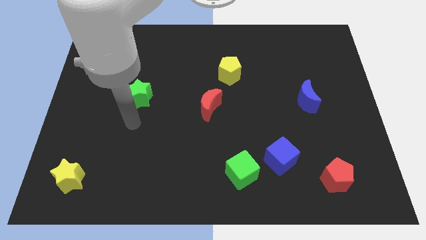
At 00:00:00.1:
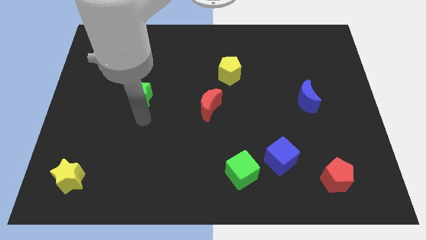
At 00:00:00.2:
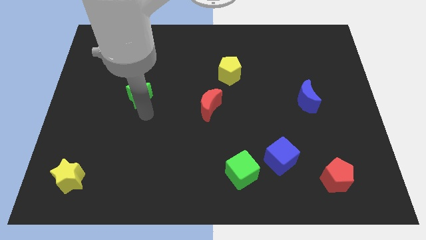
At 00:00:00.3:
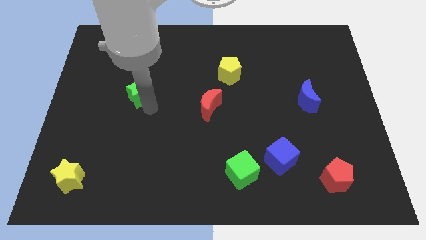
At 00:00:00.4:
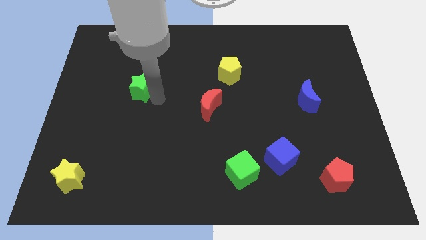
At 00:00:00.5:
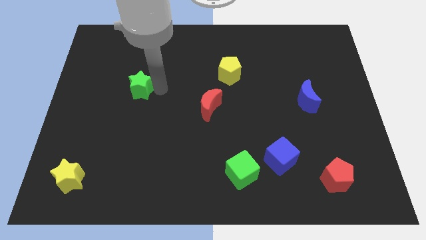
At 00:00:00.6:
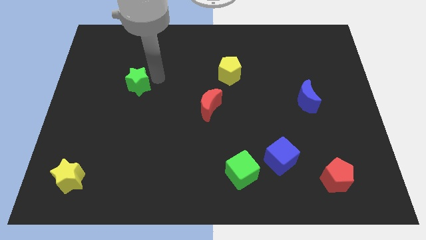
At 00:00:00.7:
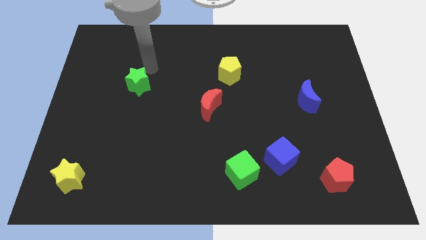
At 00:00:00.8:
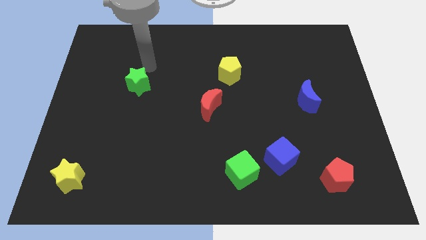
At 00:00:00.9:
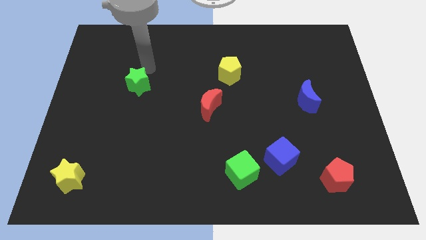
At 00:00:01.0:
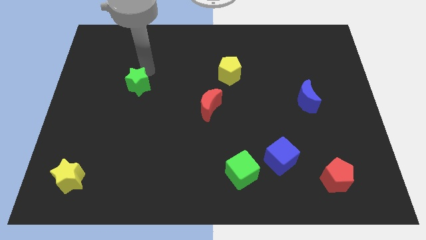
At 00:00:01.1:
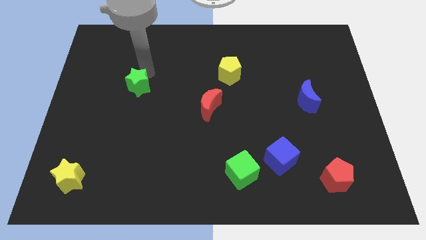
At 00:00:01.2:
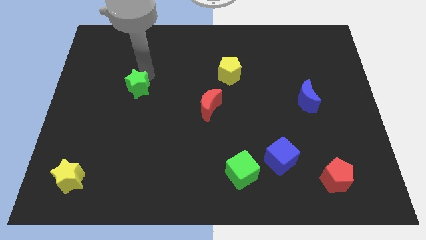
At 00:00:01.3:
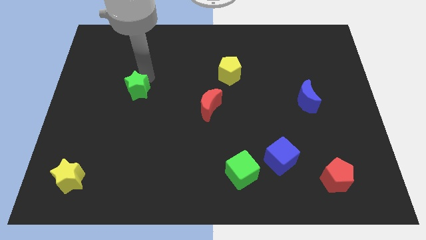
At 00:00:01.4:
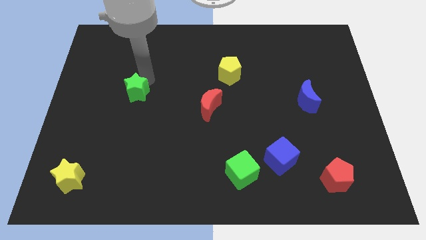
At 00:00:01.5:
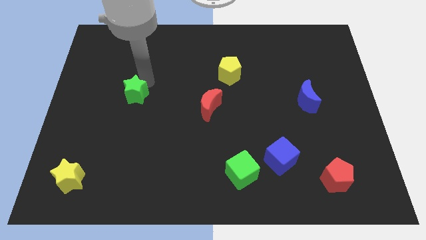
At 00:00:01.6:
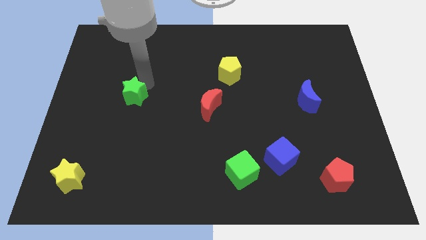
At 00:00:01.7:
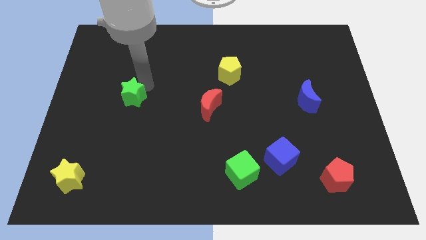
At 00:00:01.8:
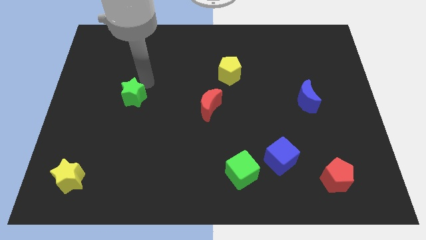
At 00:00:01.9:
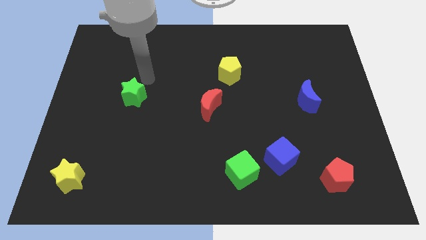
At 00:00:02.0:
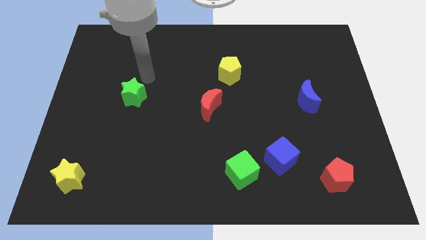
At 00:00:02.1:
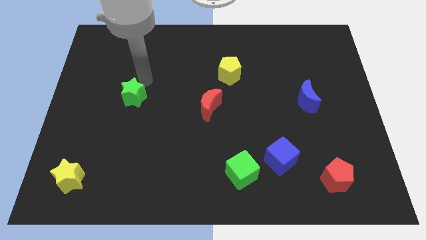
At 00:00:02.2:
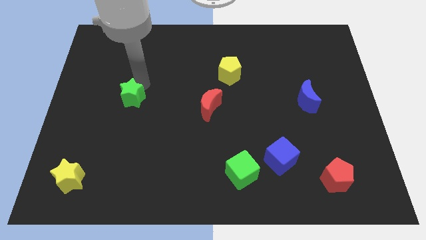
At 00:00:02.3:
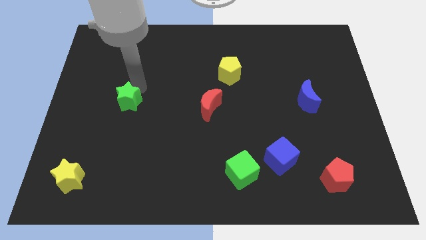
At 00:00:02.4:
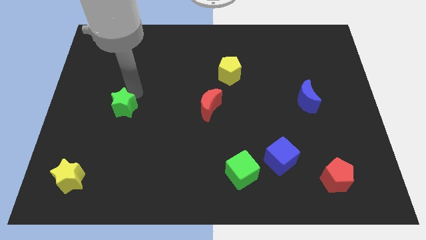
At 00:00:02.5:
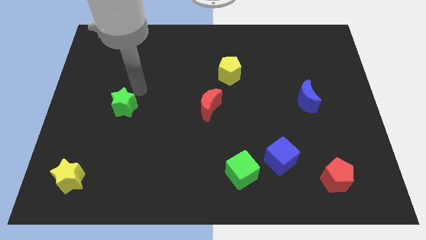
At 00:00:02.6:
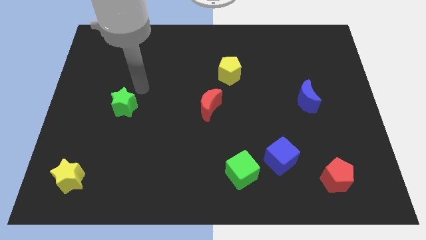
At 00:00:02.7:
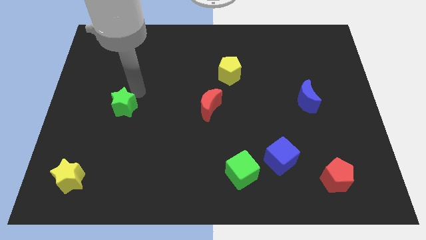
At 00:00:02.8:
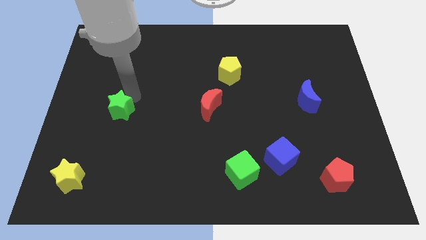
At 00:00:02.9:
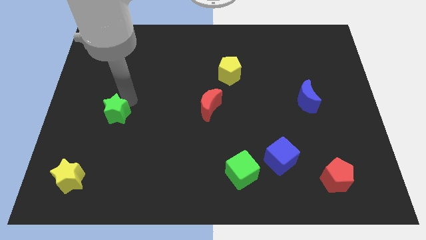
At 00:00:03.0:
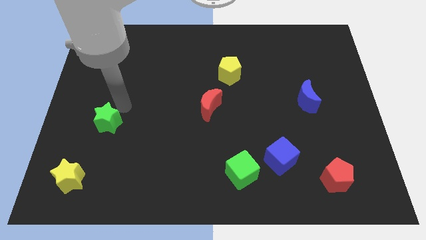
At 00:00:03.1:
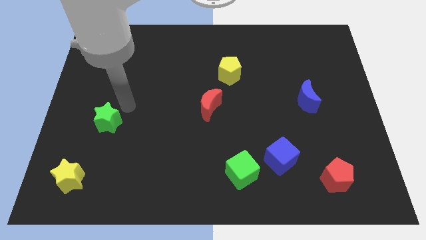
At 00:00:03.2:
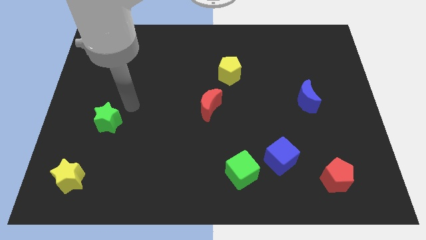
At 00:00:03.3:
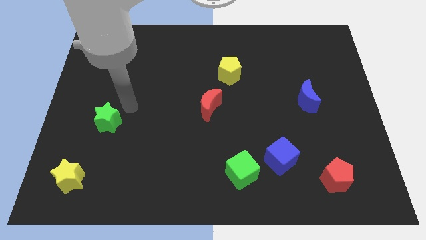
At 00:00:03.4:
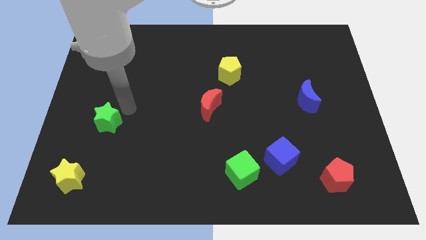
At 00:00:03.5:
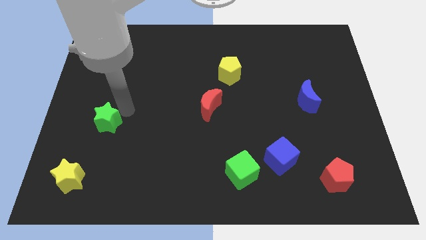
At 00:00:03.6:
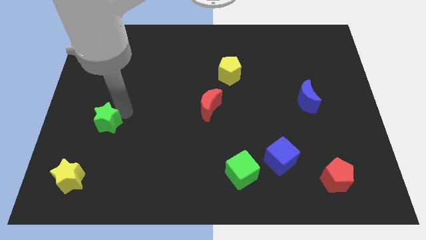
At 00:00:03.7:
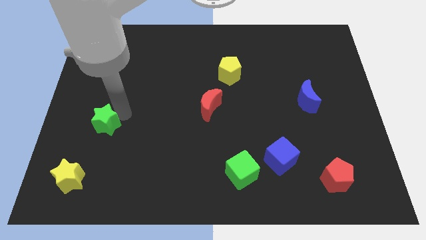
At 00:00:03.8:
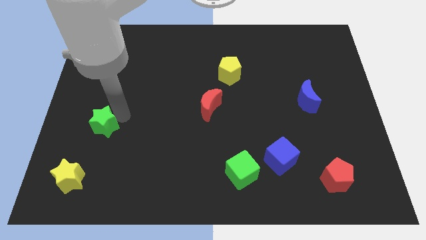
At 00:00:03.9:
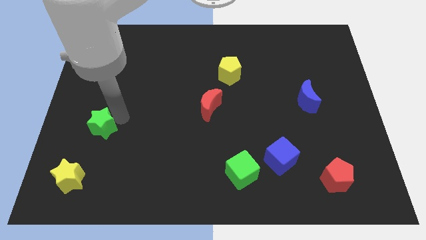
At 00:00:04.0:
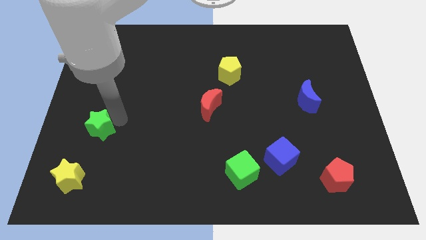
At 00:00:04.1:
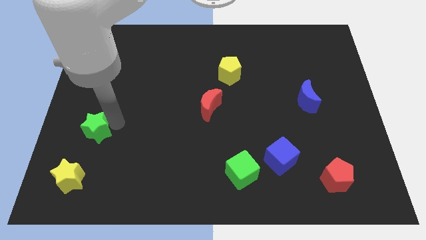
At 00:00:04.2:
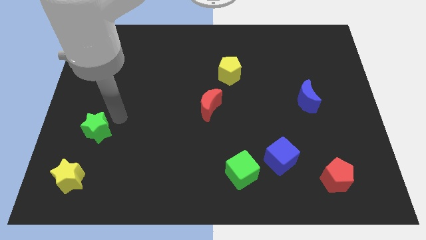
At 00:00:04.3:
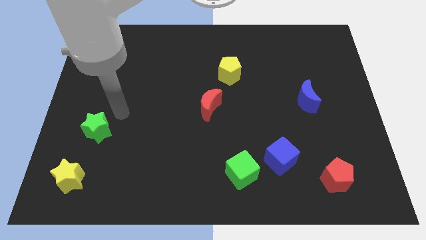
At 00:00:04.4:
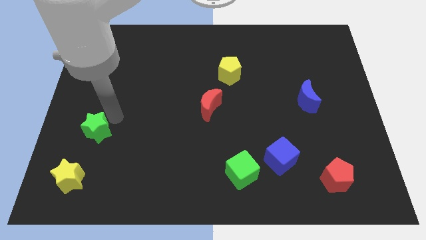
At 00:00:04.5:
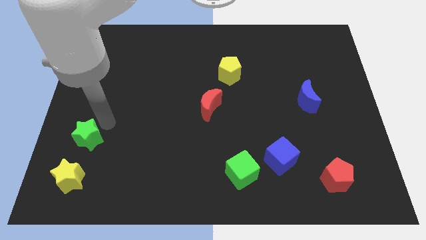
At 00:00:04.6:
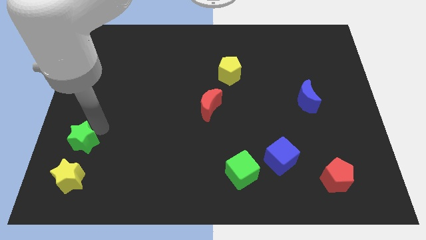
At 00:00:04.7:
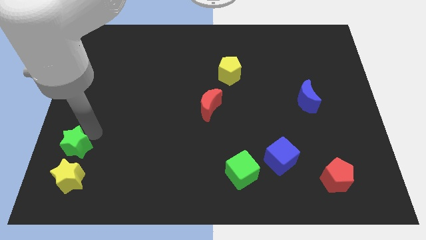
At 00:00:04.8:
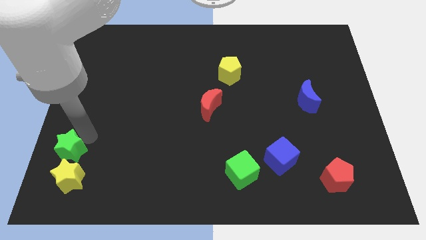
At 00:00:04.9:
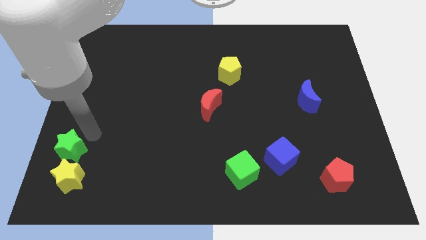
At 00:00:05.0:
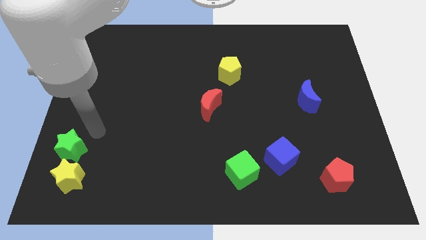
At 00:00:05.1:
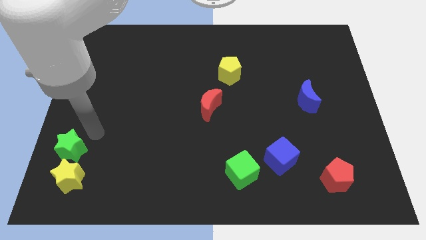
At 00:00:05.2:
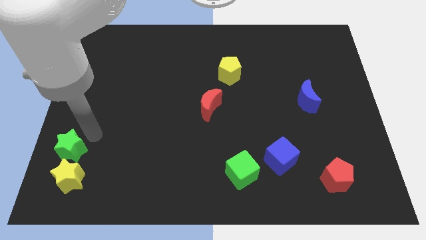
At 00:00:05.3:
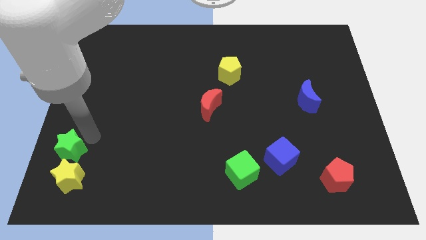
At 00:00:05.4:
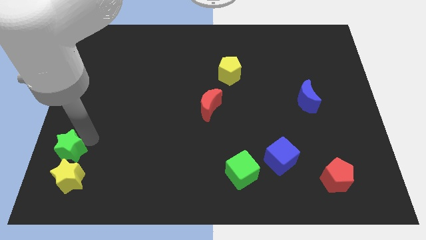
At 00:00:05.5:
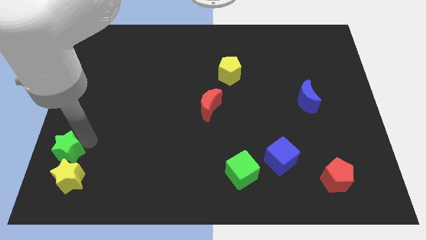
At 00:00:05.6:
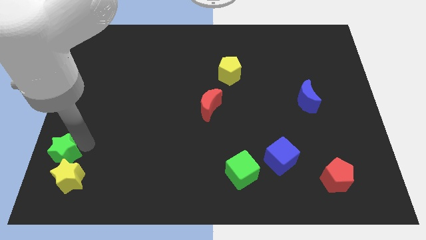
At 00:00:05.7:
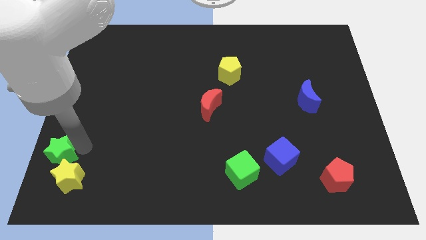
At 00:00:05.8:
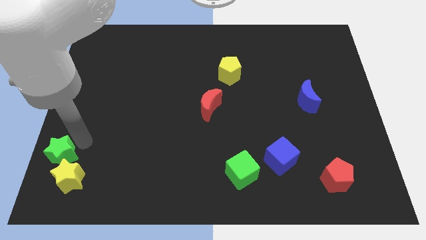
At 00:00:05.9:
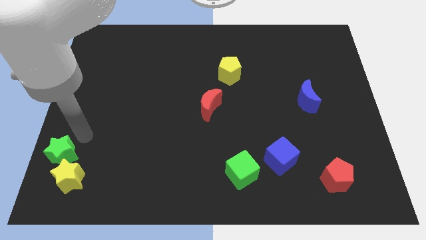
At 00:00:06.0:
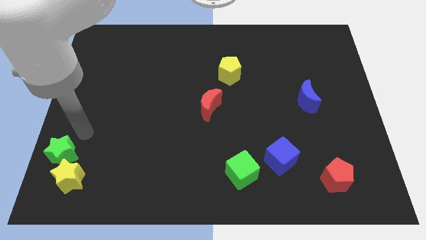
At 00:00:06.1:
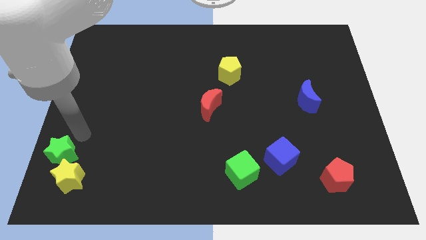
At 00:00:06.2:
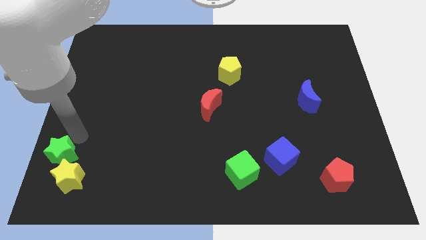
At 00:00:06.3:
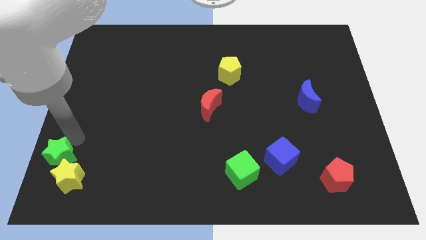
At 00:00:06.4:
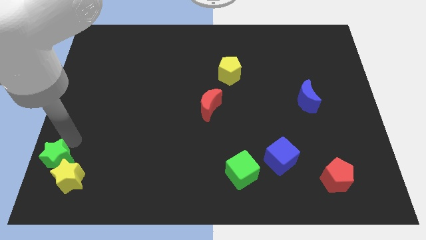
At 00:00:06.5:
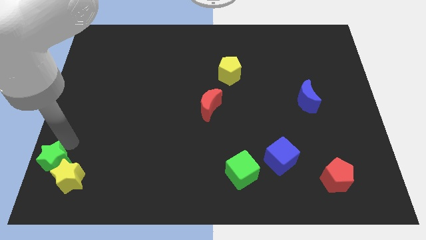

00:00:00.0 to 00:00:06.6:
push the green star to the bottom left of the board
